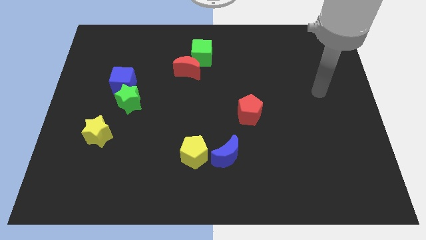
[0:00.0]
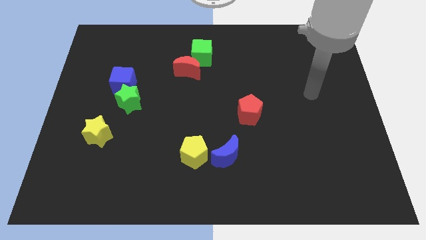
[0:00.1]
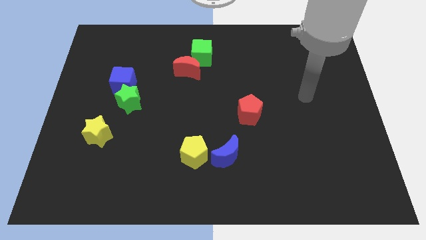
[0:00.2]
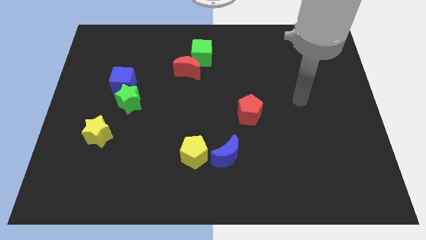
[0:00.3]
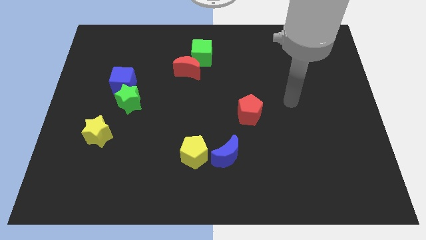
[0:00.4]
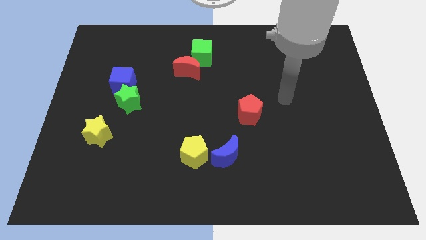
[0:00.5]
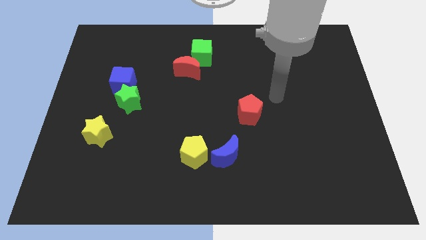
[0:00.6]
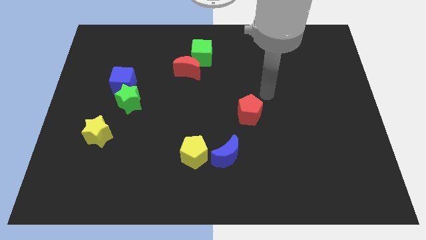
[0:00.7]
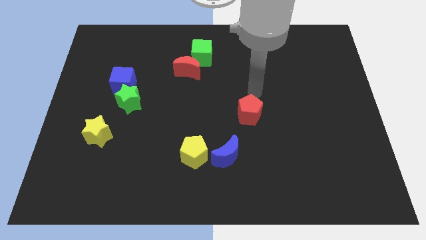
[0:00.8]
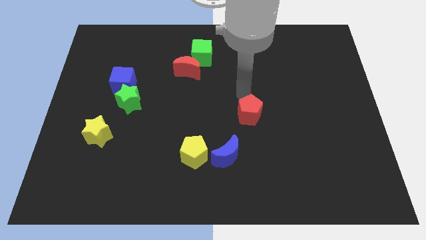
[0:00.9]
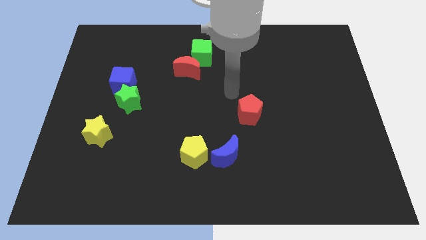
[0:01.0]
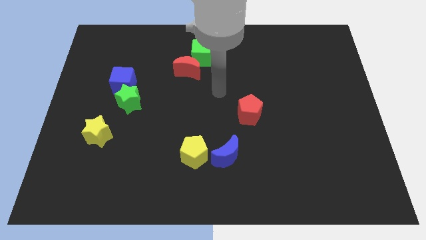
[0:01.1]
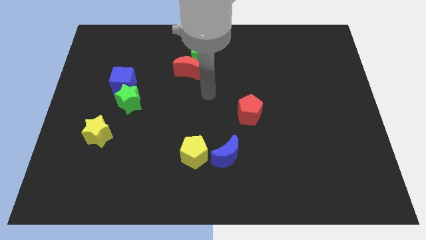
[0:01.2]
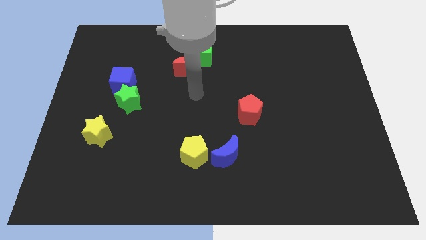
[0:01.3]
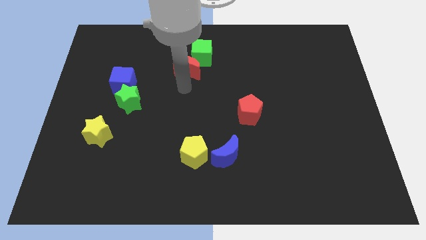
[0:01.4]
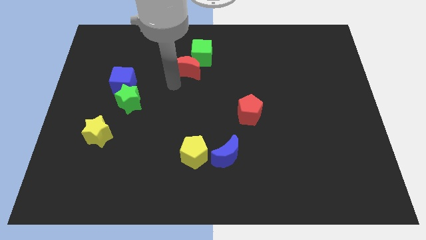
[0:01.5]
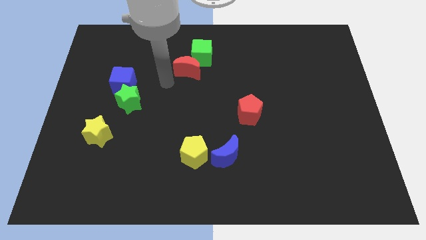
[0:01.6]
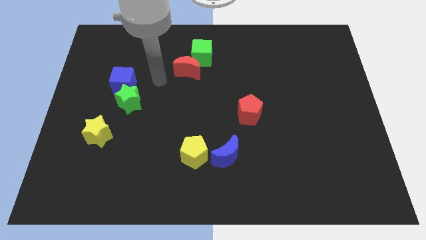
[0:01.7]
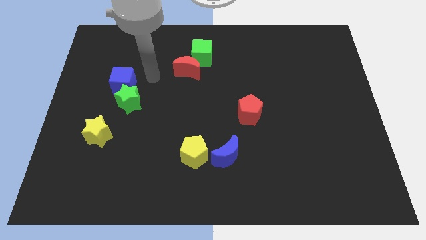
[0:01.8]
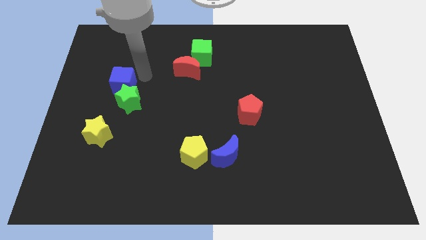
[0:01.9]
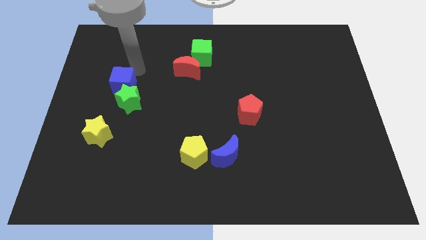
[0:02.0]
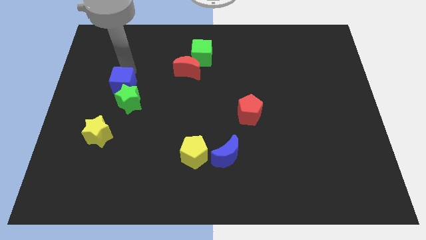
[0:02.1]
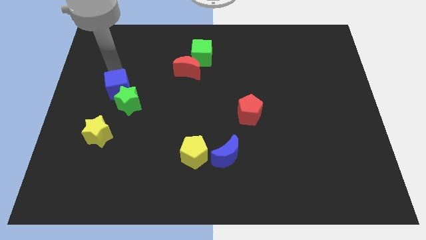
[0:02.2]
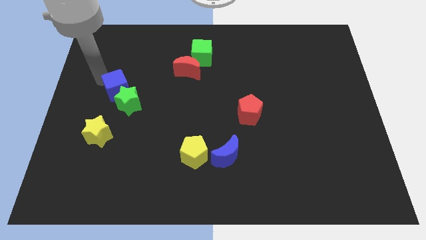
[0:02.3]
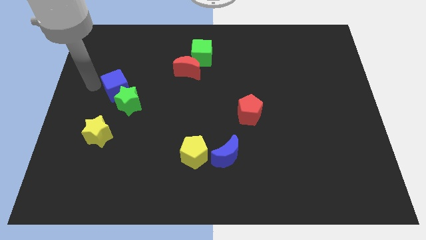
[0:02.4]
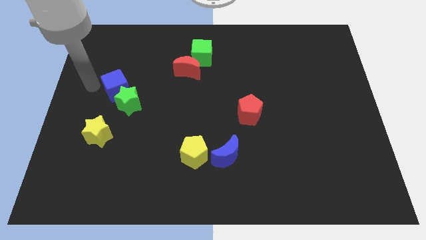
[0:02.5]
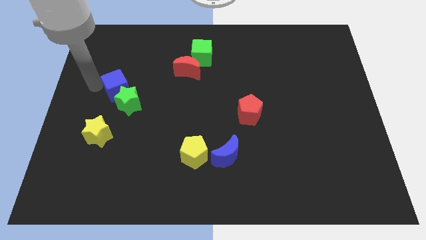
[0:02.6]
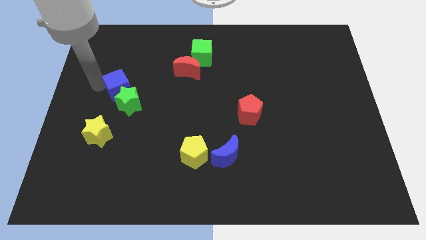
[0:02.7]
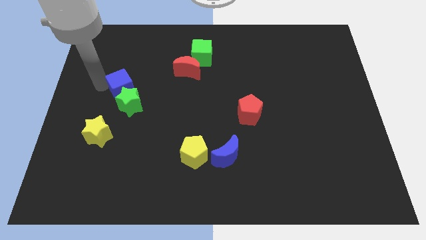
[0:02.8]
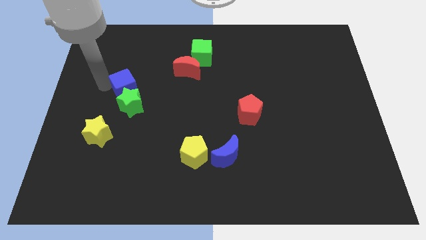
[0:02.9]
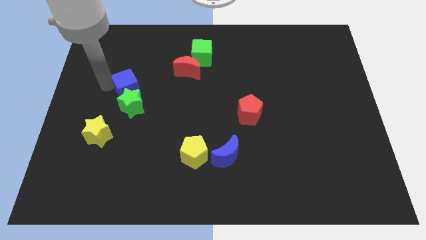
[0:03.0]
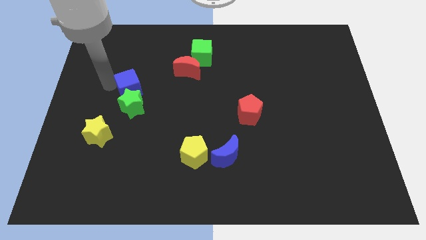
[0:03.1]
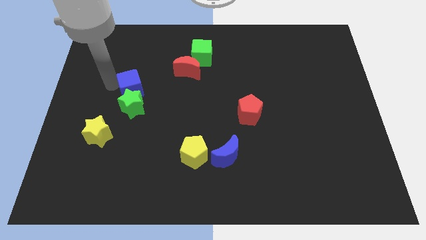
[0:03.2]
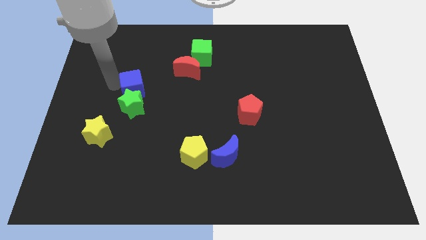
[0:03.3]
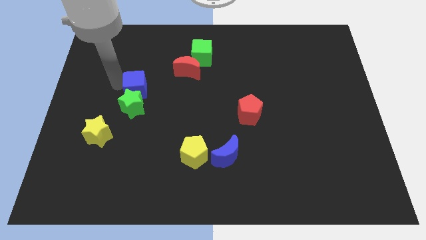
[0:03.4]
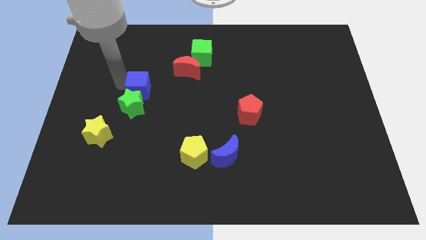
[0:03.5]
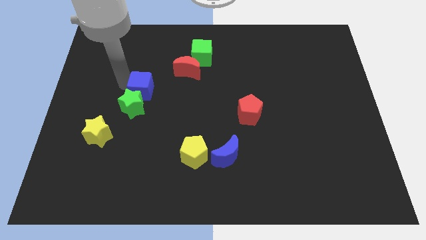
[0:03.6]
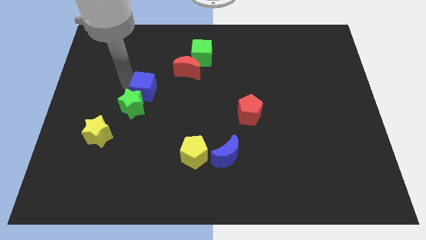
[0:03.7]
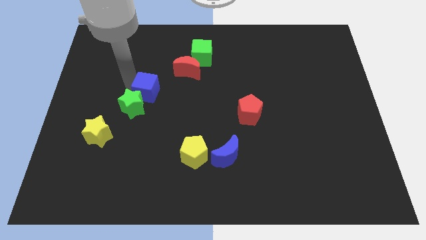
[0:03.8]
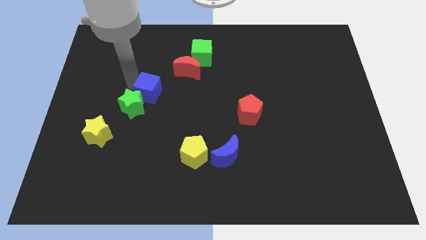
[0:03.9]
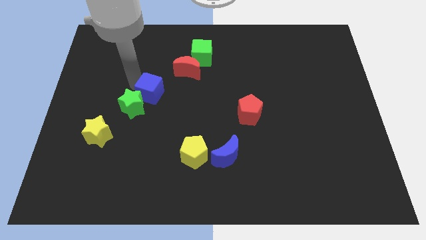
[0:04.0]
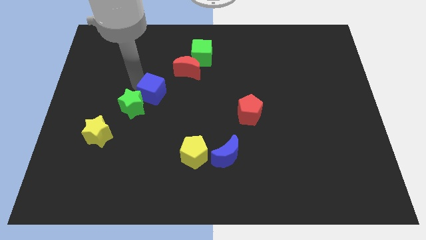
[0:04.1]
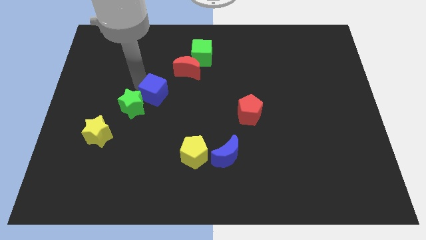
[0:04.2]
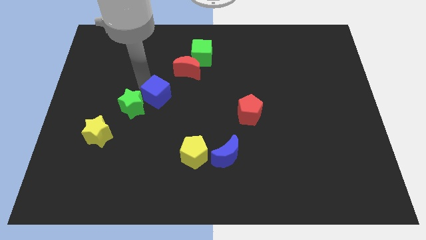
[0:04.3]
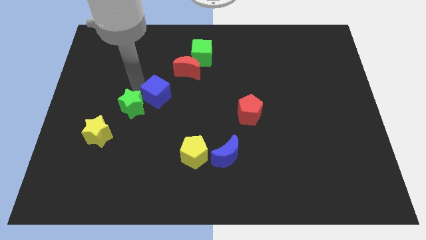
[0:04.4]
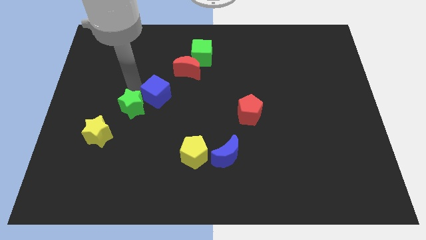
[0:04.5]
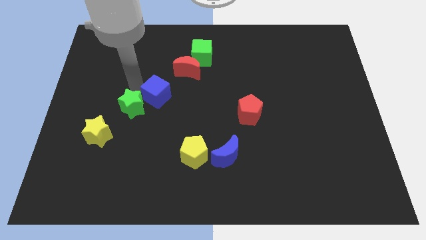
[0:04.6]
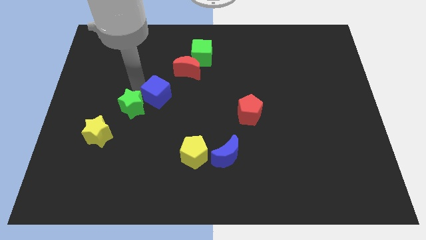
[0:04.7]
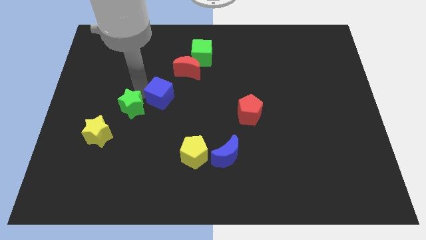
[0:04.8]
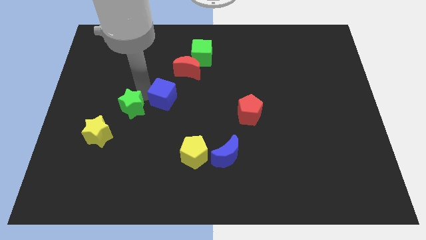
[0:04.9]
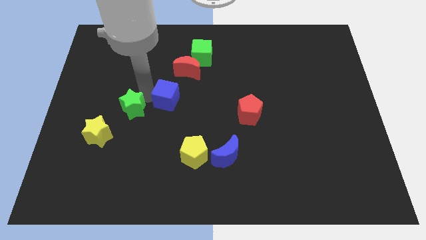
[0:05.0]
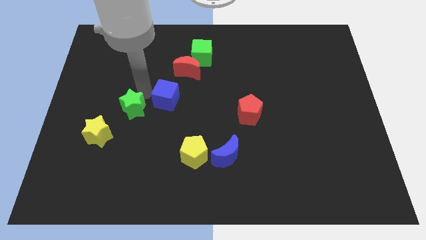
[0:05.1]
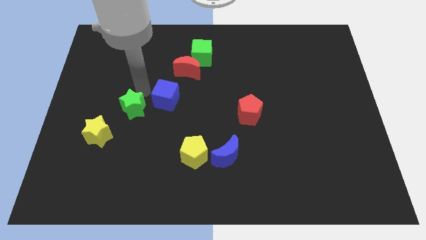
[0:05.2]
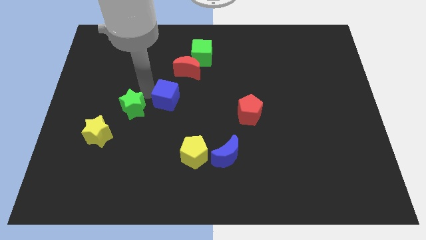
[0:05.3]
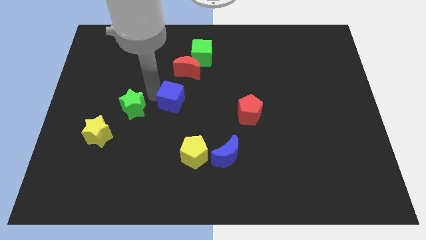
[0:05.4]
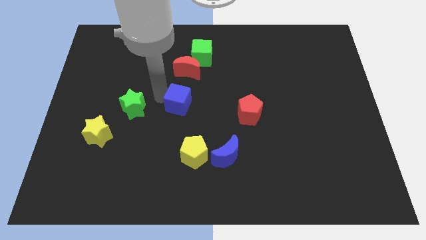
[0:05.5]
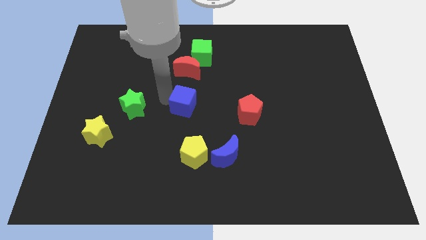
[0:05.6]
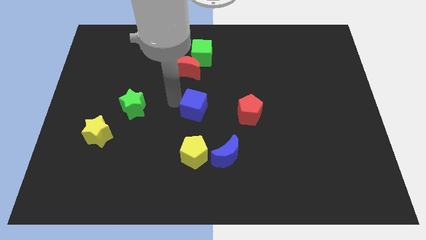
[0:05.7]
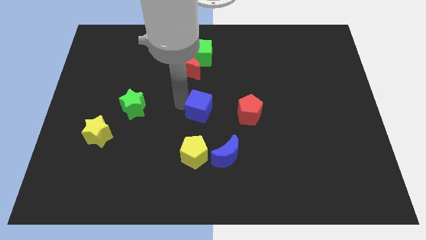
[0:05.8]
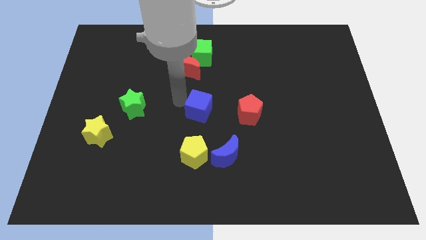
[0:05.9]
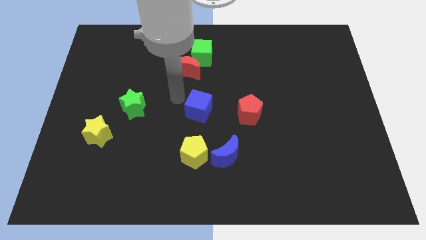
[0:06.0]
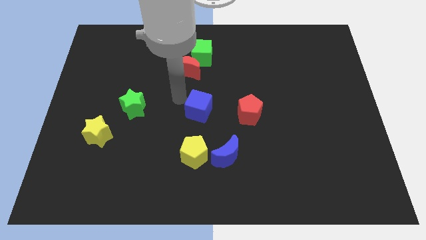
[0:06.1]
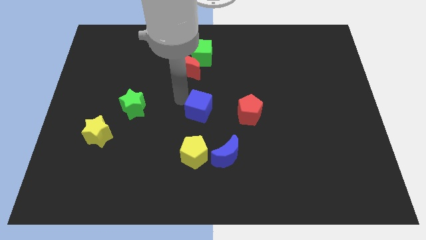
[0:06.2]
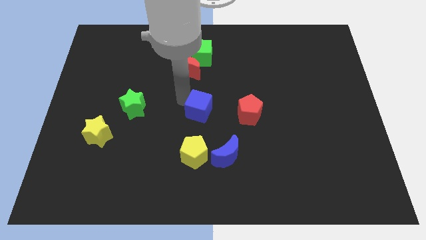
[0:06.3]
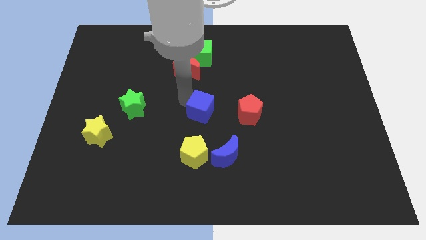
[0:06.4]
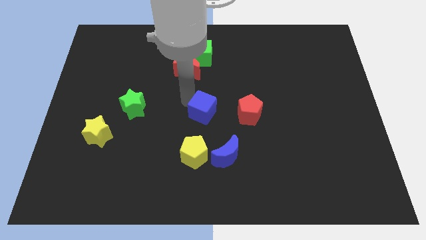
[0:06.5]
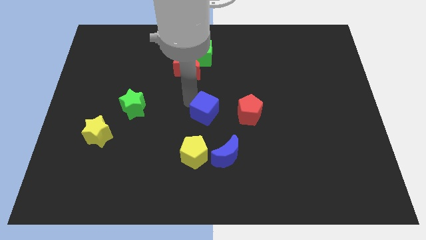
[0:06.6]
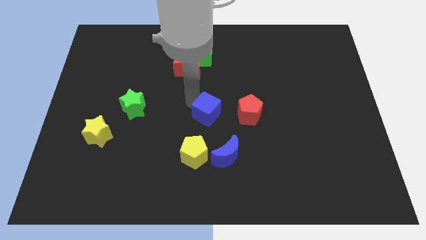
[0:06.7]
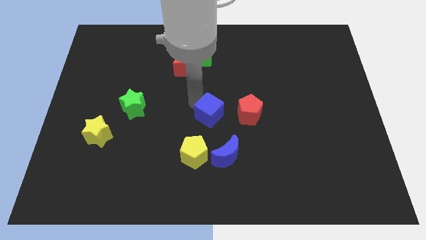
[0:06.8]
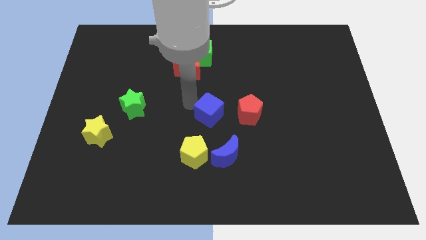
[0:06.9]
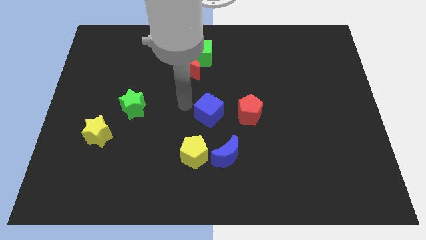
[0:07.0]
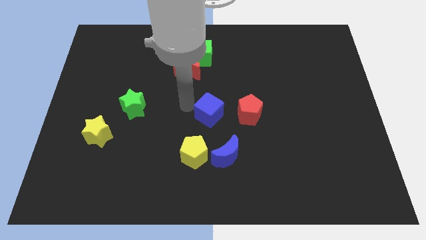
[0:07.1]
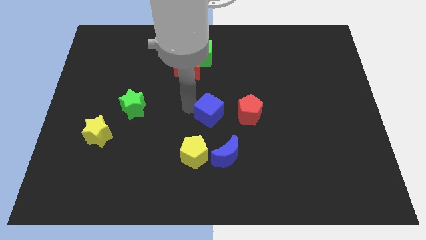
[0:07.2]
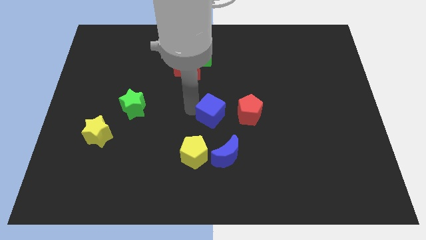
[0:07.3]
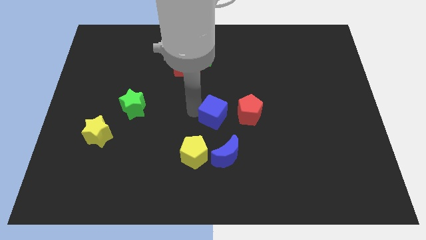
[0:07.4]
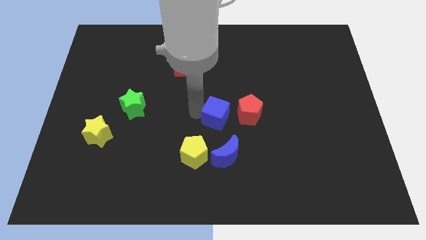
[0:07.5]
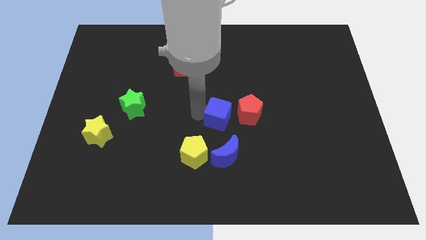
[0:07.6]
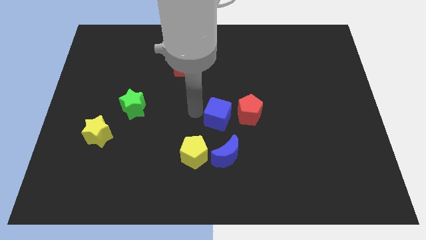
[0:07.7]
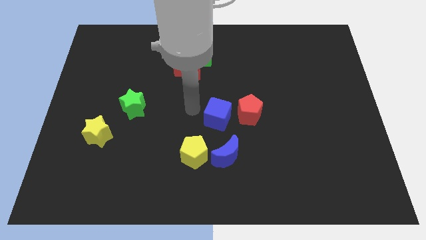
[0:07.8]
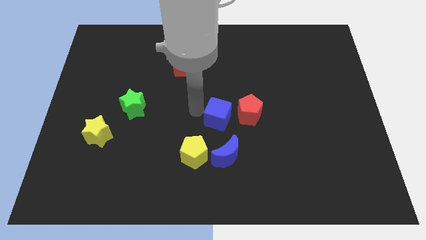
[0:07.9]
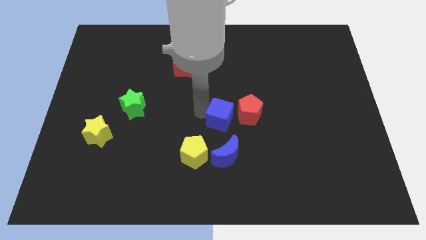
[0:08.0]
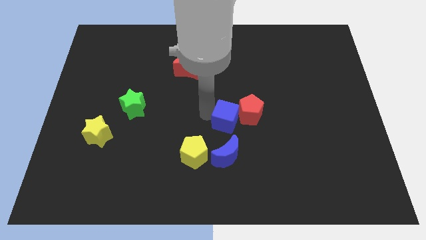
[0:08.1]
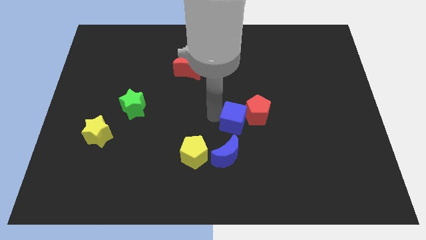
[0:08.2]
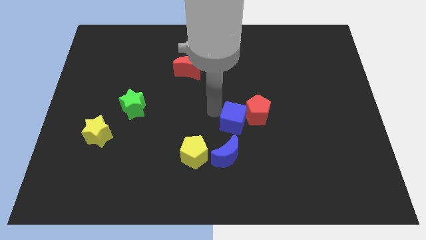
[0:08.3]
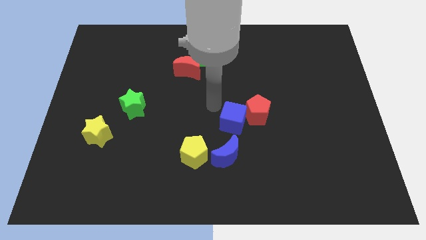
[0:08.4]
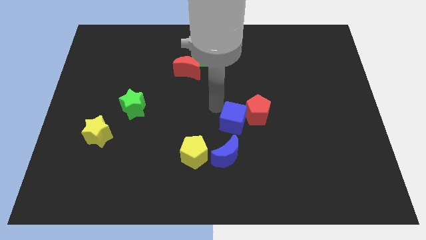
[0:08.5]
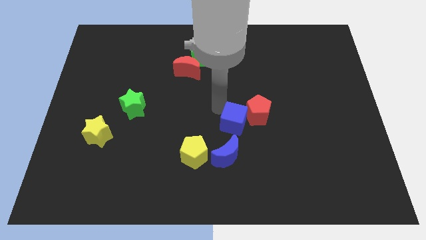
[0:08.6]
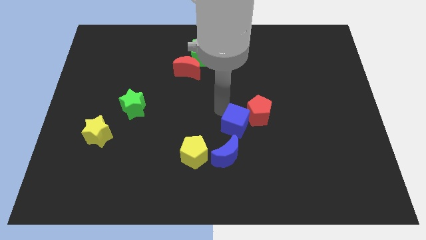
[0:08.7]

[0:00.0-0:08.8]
move the blue cube to the top right of the blue moon
